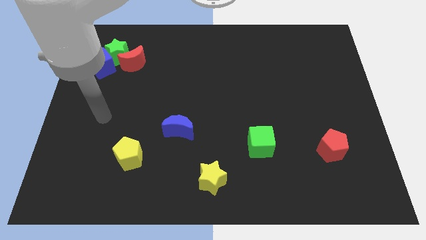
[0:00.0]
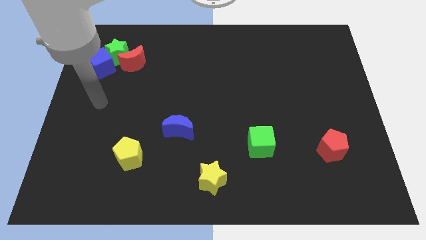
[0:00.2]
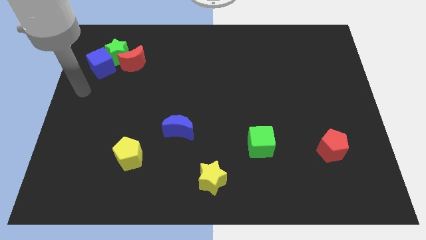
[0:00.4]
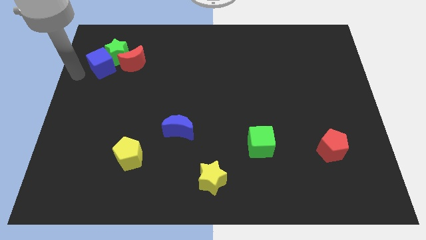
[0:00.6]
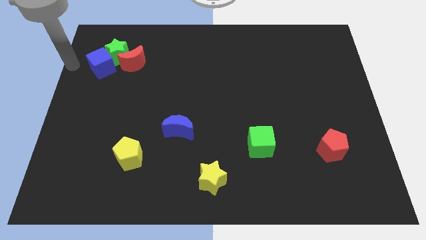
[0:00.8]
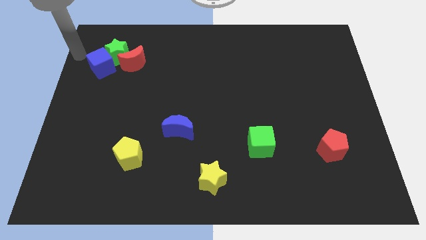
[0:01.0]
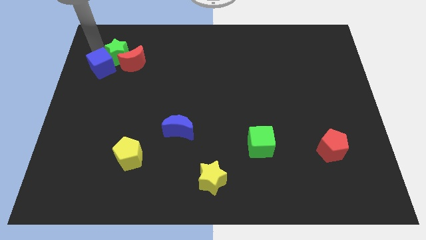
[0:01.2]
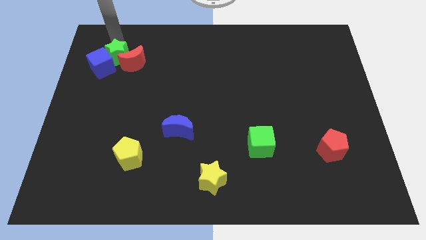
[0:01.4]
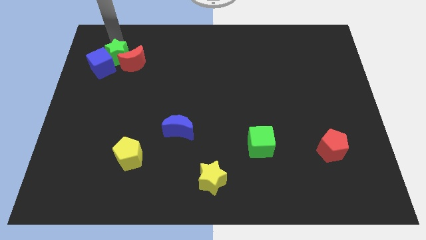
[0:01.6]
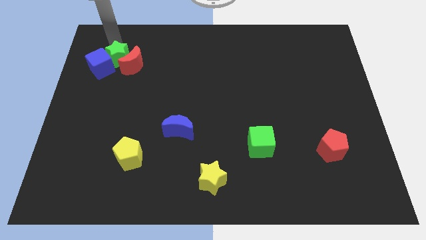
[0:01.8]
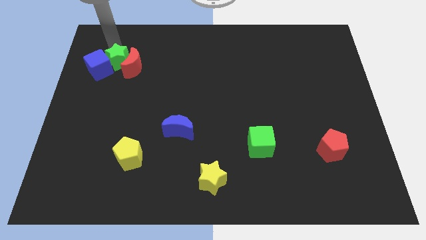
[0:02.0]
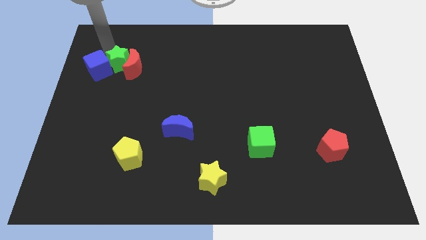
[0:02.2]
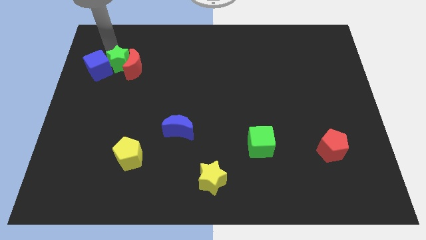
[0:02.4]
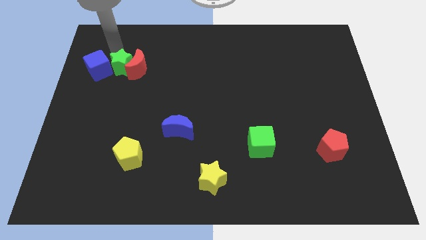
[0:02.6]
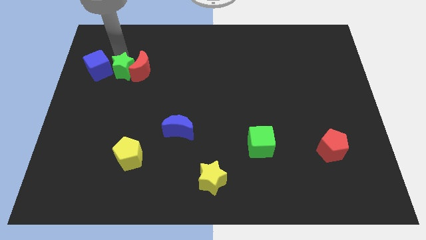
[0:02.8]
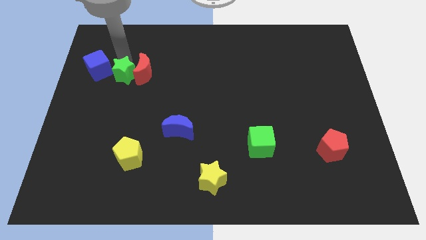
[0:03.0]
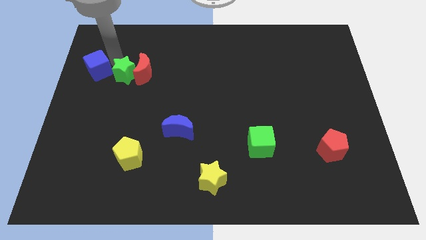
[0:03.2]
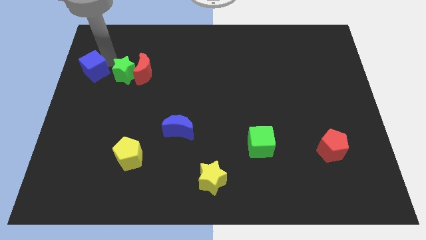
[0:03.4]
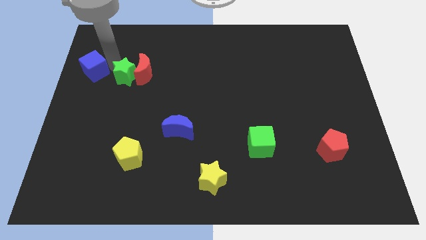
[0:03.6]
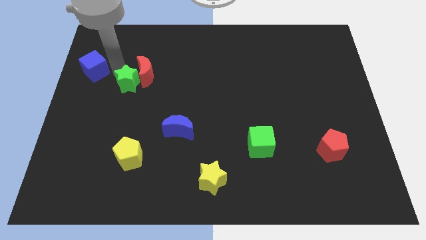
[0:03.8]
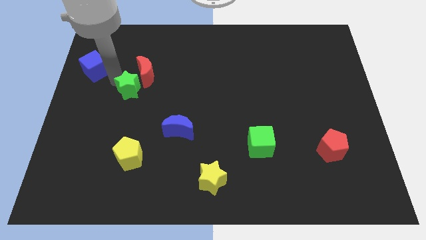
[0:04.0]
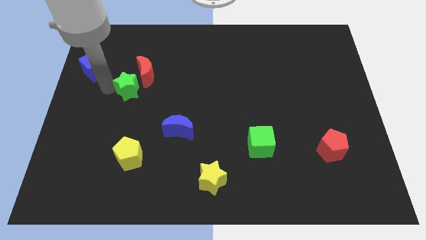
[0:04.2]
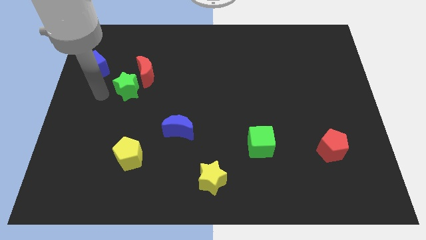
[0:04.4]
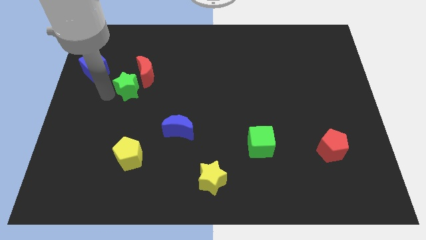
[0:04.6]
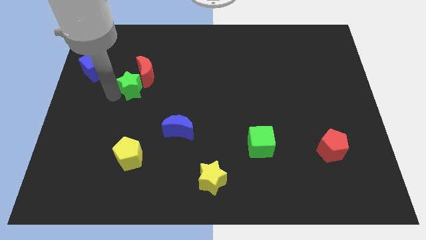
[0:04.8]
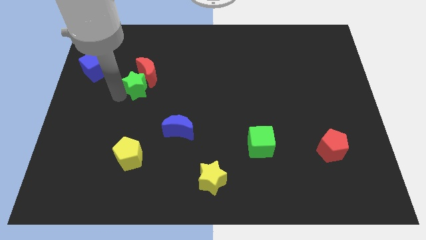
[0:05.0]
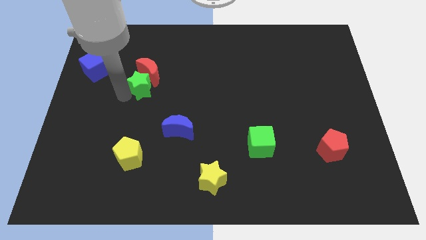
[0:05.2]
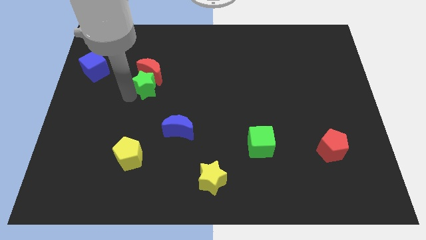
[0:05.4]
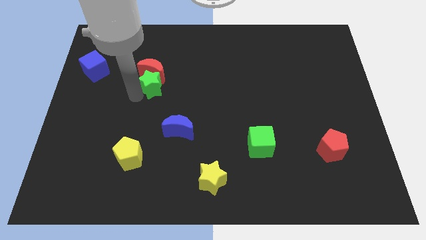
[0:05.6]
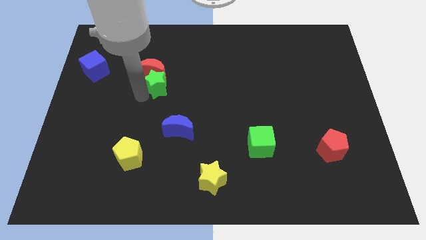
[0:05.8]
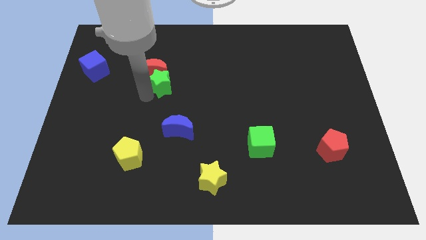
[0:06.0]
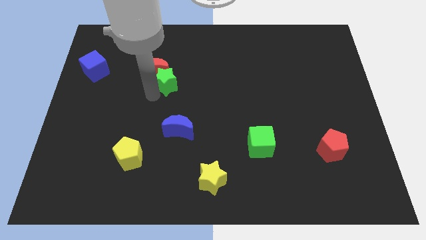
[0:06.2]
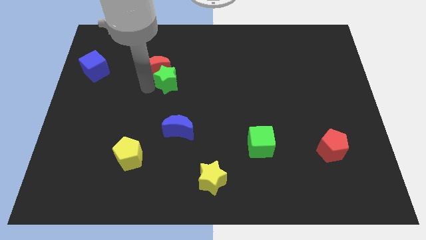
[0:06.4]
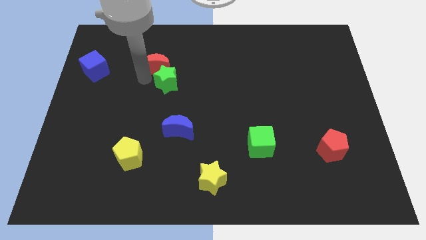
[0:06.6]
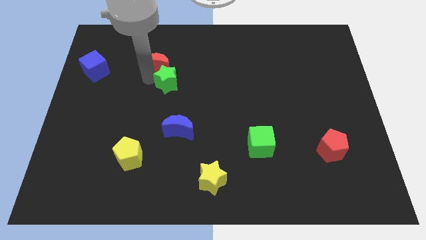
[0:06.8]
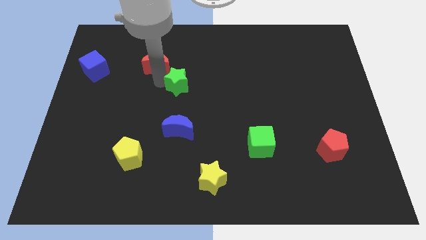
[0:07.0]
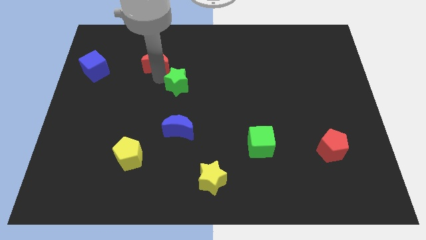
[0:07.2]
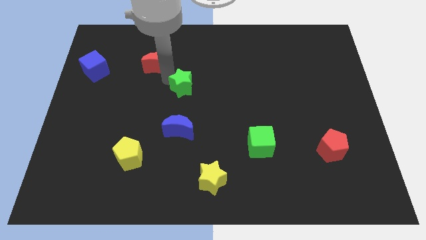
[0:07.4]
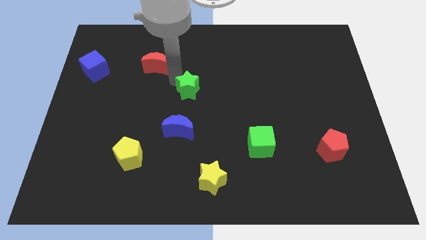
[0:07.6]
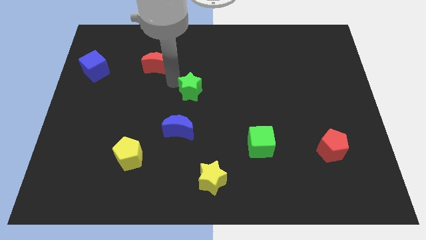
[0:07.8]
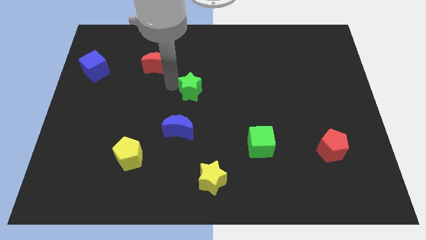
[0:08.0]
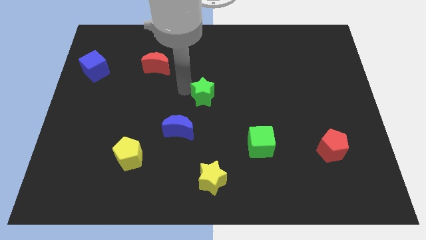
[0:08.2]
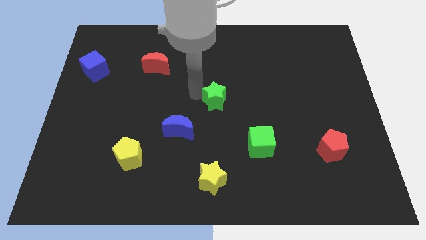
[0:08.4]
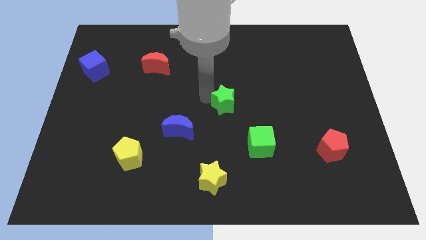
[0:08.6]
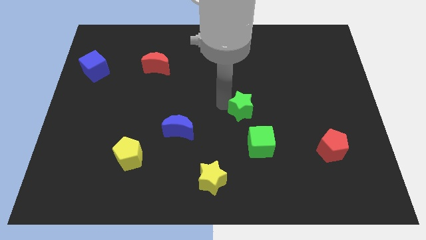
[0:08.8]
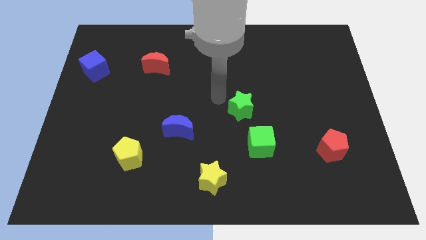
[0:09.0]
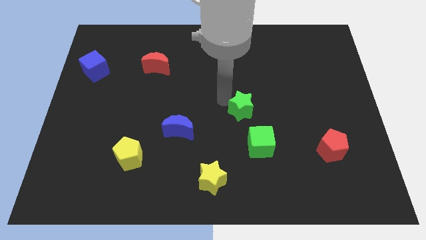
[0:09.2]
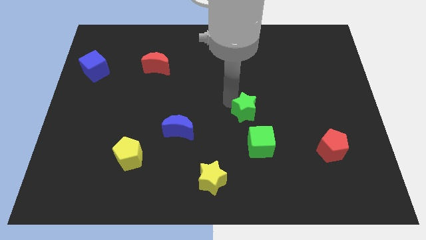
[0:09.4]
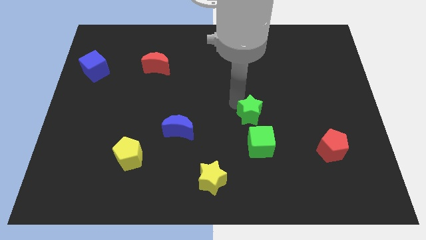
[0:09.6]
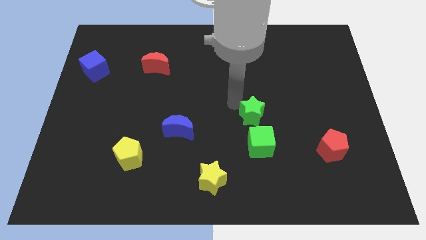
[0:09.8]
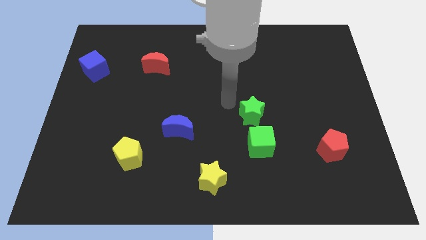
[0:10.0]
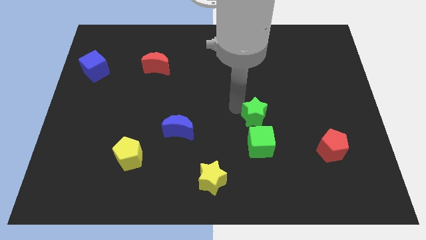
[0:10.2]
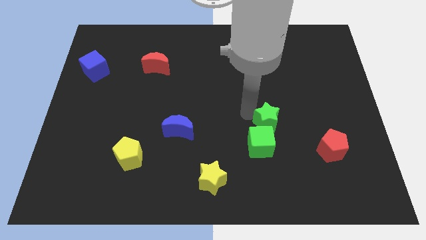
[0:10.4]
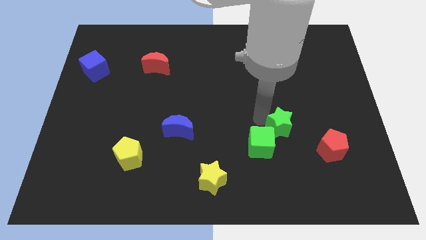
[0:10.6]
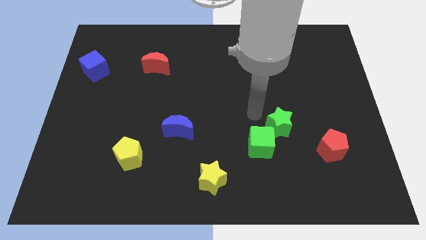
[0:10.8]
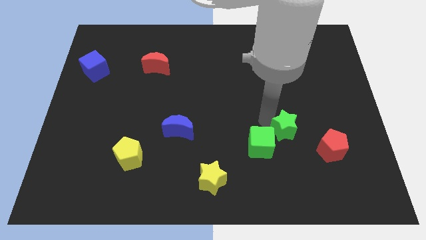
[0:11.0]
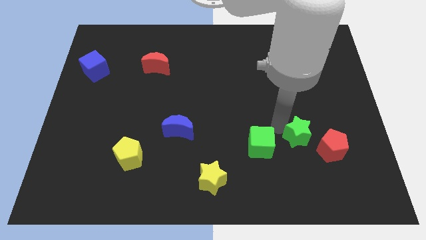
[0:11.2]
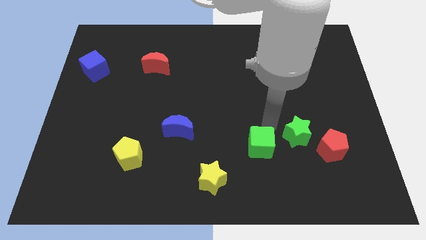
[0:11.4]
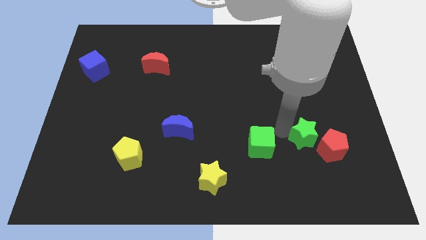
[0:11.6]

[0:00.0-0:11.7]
push the green star to the red pentagon

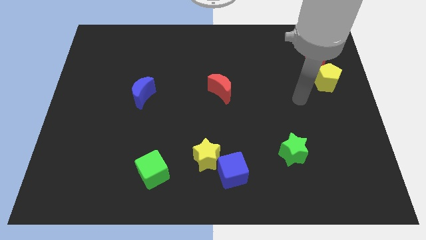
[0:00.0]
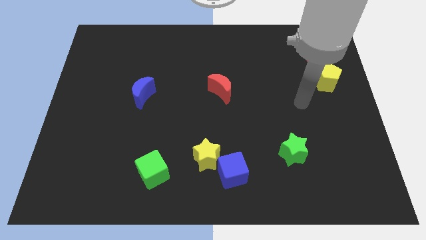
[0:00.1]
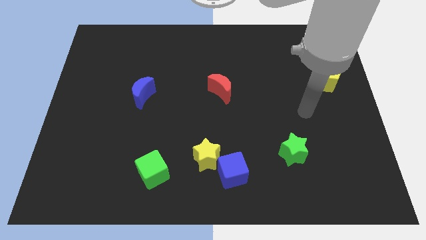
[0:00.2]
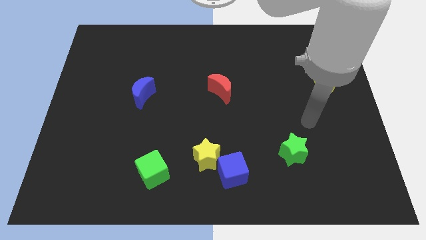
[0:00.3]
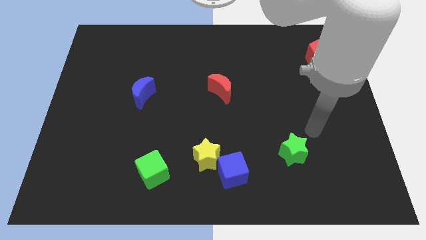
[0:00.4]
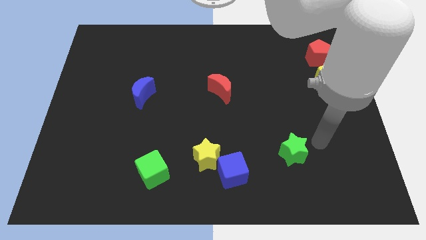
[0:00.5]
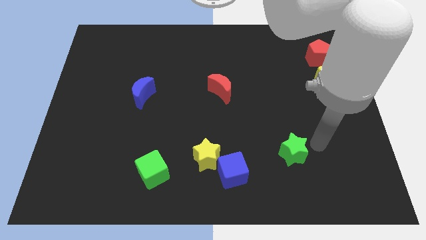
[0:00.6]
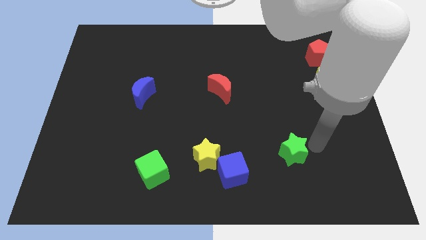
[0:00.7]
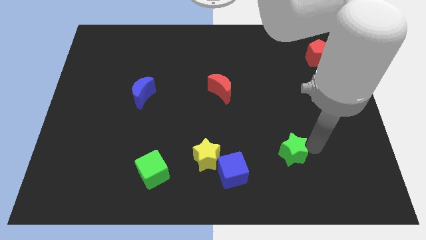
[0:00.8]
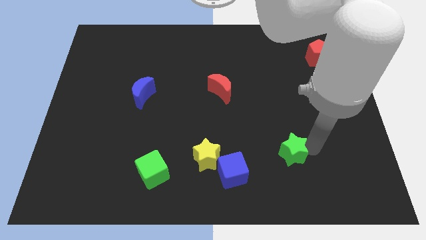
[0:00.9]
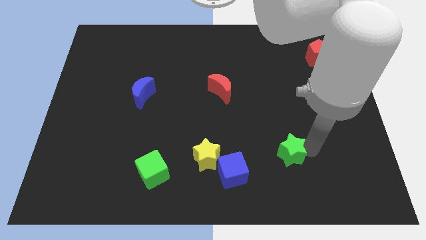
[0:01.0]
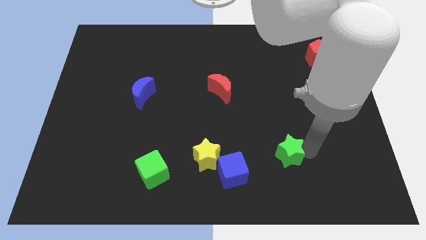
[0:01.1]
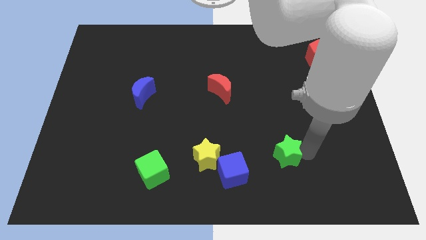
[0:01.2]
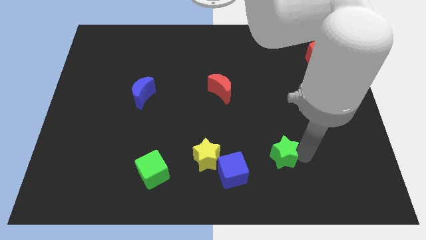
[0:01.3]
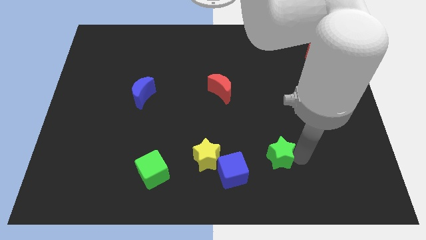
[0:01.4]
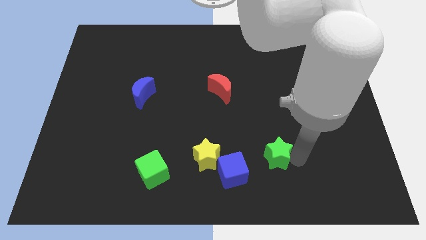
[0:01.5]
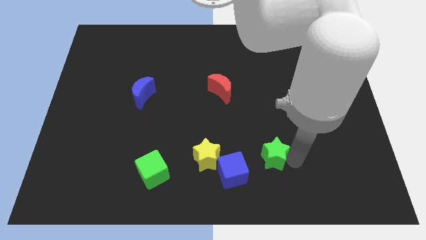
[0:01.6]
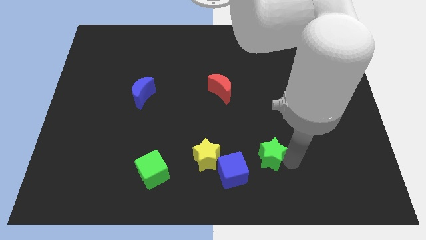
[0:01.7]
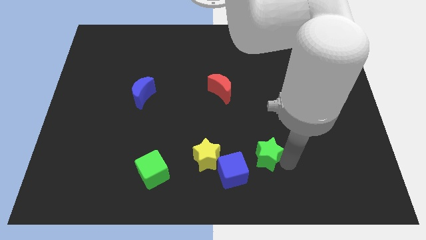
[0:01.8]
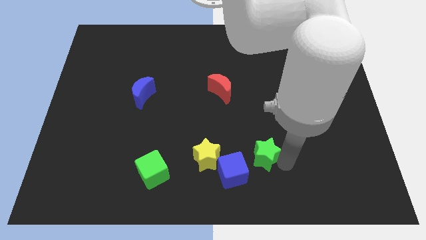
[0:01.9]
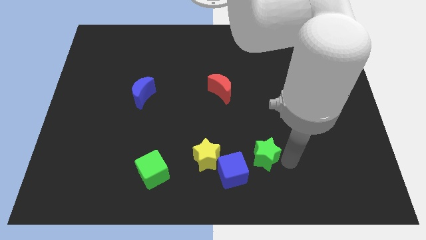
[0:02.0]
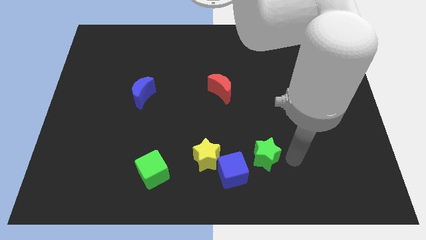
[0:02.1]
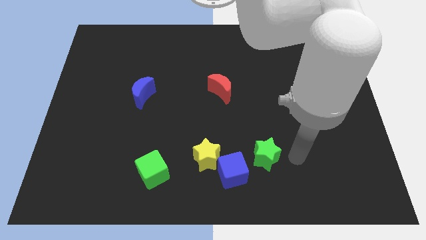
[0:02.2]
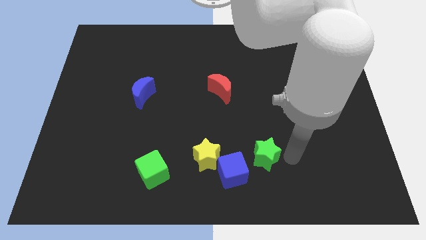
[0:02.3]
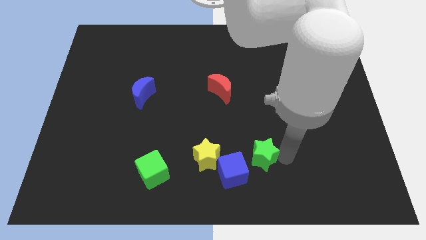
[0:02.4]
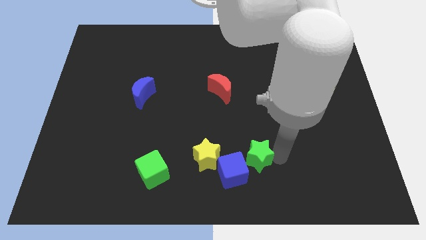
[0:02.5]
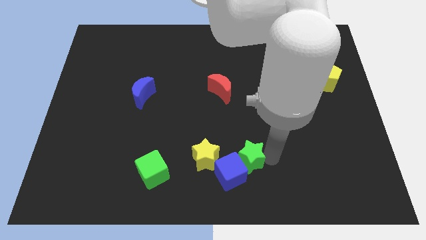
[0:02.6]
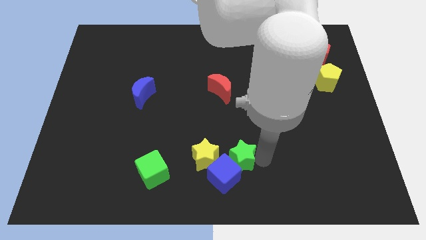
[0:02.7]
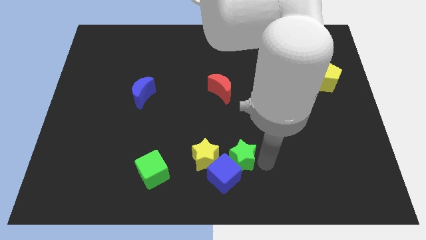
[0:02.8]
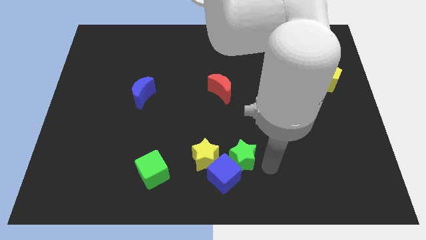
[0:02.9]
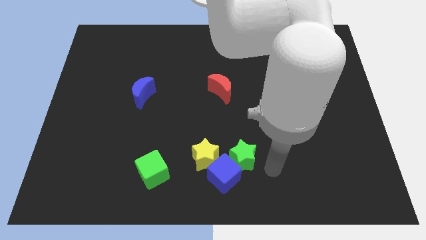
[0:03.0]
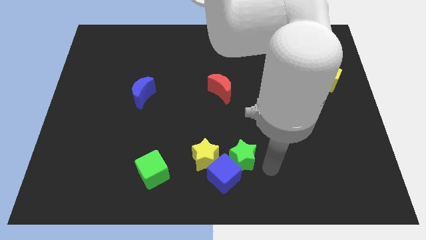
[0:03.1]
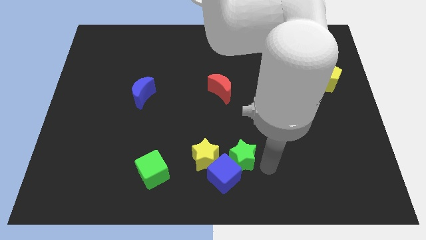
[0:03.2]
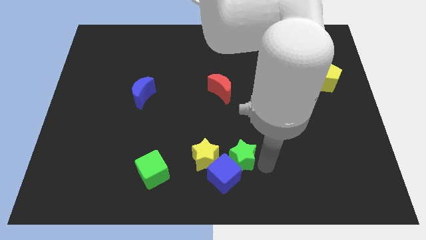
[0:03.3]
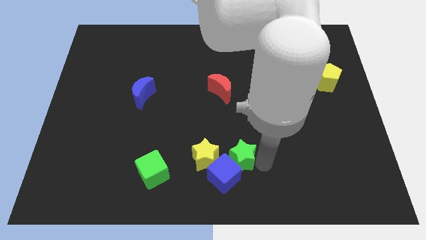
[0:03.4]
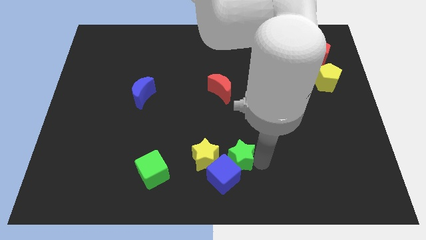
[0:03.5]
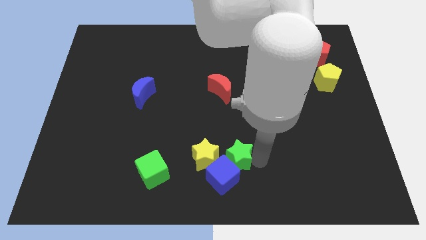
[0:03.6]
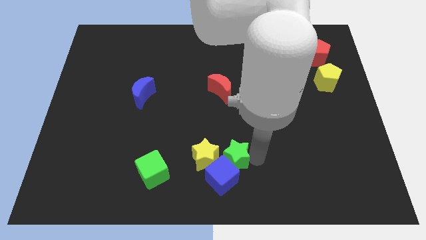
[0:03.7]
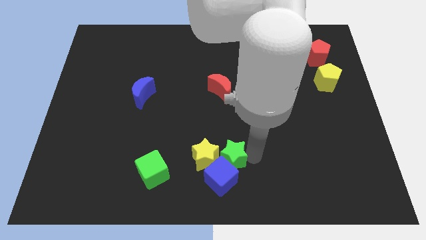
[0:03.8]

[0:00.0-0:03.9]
move the green star to the yellow star
